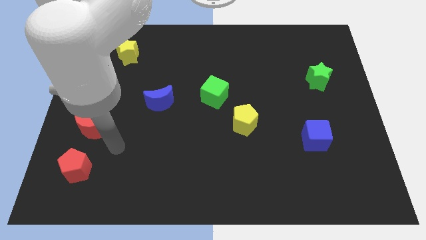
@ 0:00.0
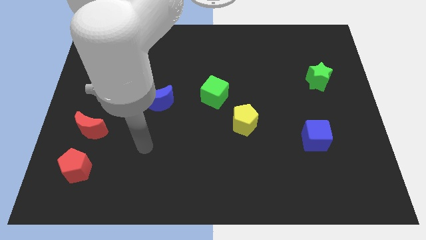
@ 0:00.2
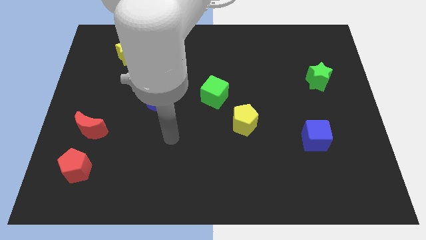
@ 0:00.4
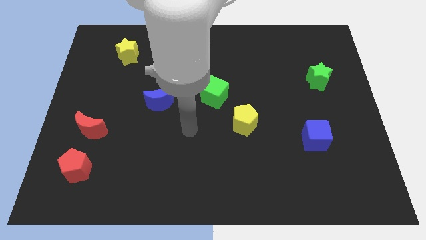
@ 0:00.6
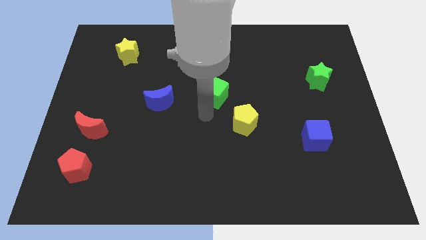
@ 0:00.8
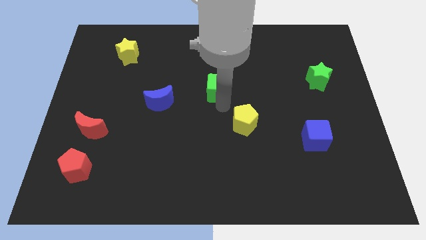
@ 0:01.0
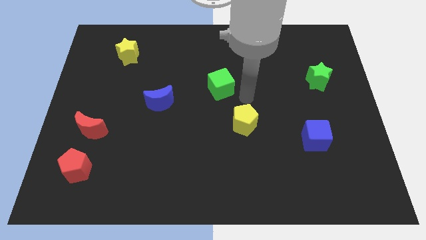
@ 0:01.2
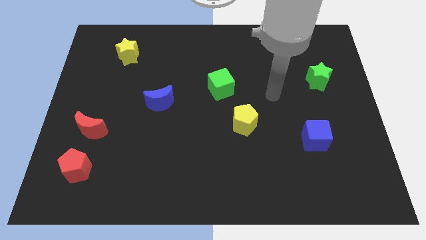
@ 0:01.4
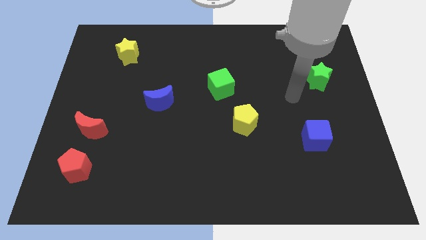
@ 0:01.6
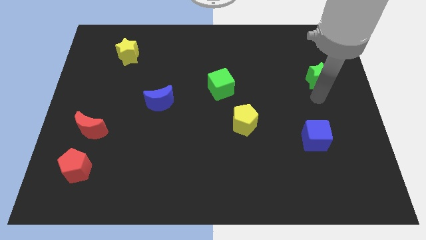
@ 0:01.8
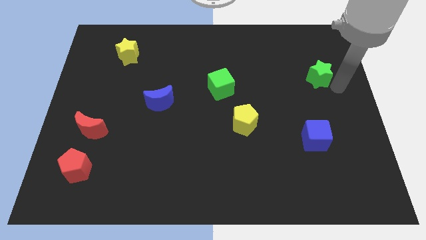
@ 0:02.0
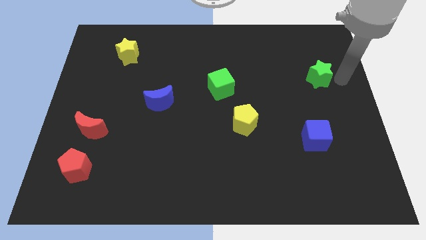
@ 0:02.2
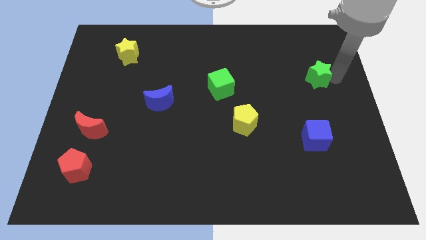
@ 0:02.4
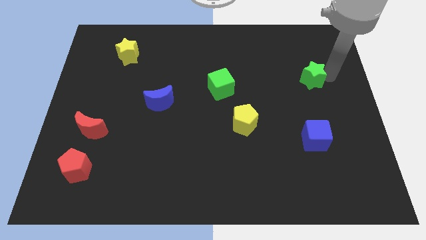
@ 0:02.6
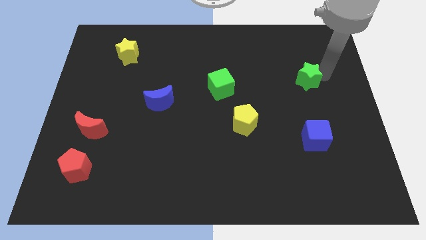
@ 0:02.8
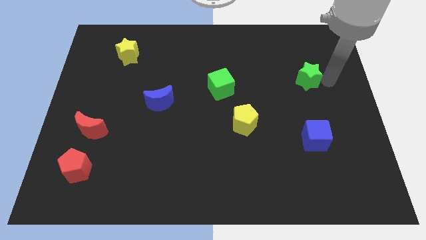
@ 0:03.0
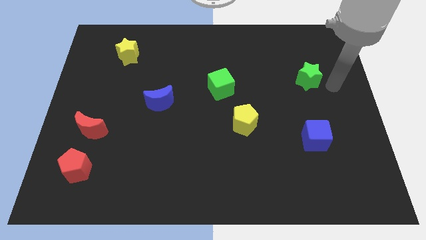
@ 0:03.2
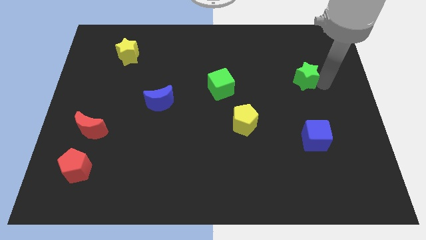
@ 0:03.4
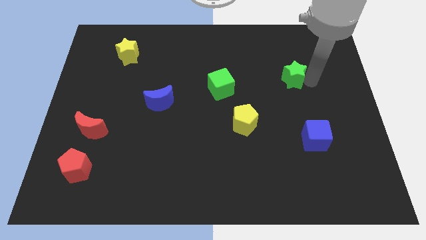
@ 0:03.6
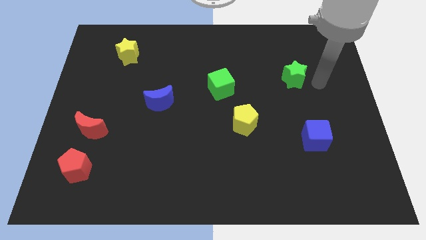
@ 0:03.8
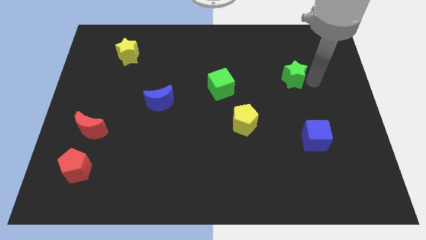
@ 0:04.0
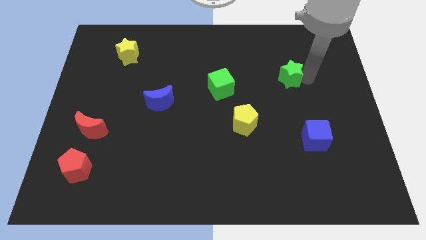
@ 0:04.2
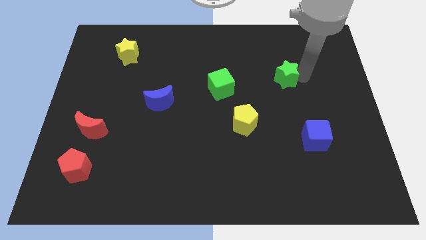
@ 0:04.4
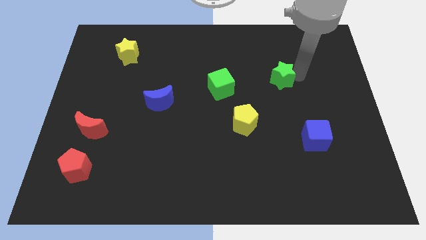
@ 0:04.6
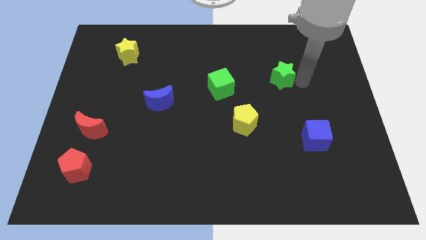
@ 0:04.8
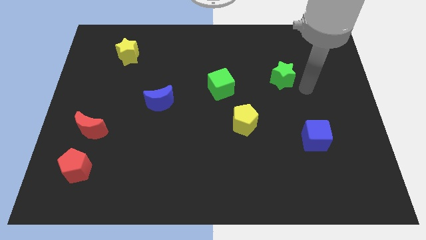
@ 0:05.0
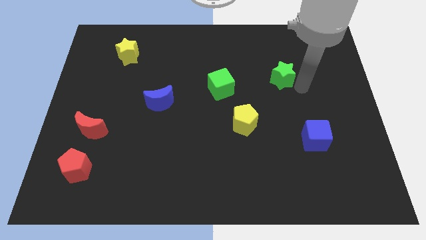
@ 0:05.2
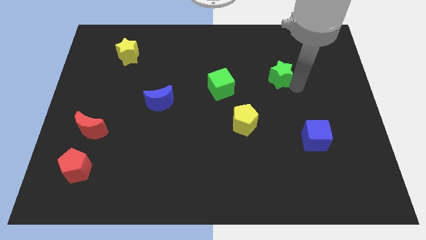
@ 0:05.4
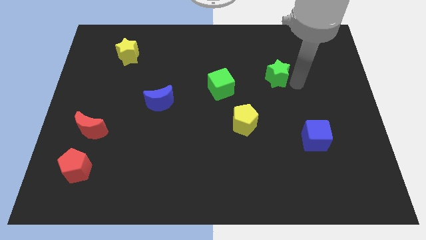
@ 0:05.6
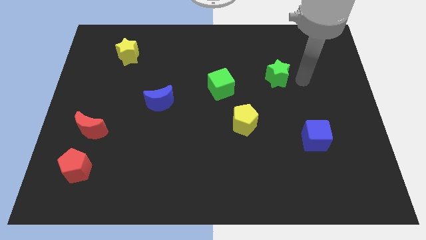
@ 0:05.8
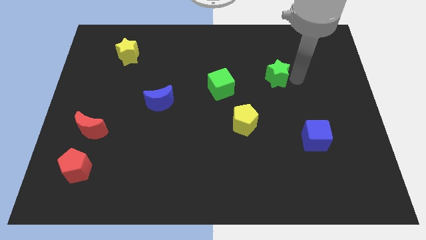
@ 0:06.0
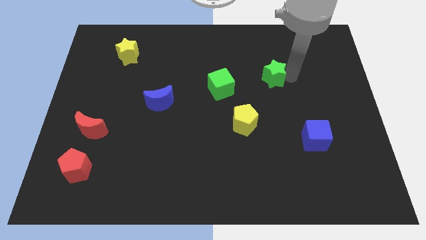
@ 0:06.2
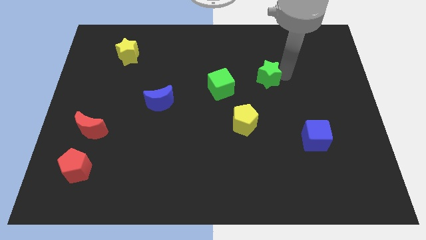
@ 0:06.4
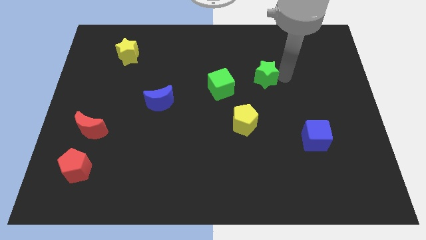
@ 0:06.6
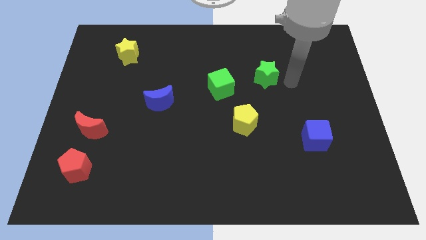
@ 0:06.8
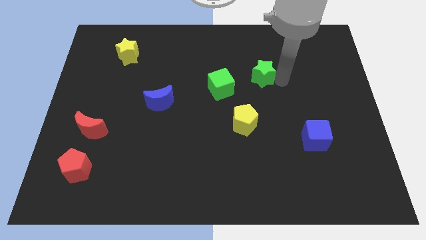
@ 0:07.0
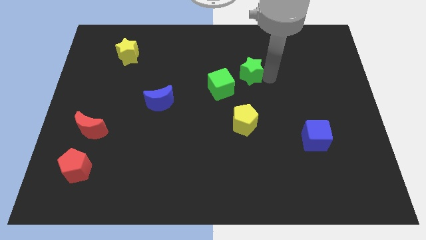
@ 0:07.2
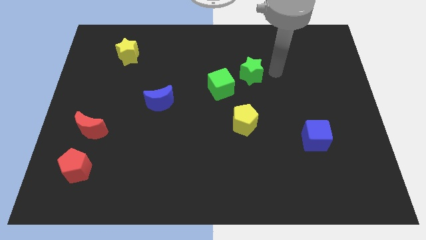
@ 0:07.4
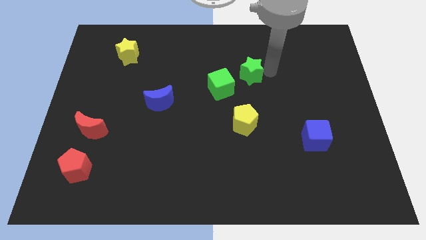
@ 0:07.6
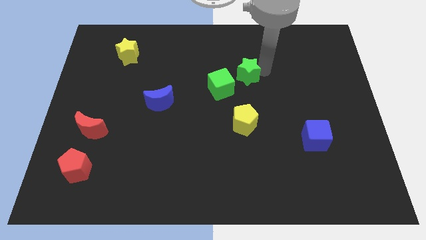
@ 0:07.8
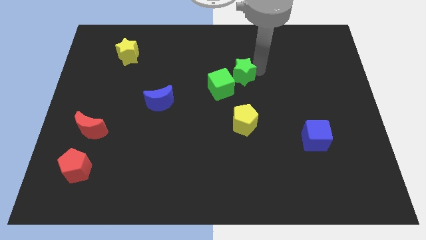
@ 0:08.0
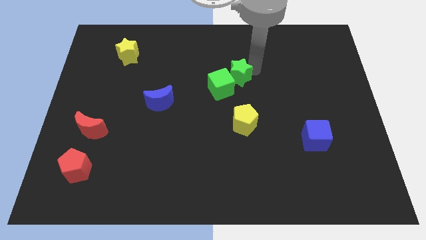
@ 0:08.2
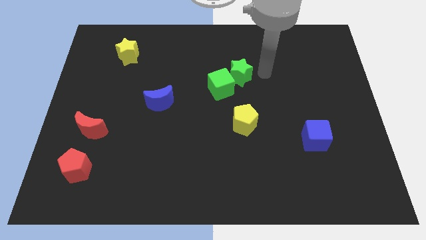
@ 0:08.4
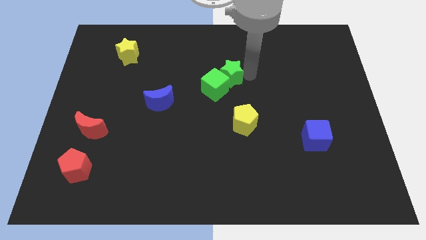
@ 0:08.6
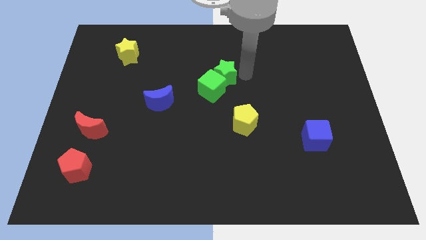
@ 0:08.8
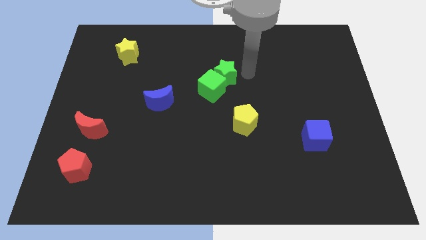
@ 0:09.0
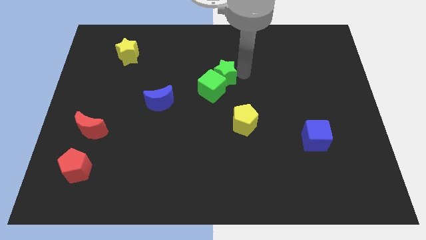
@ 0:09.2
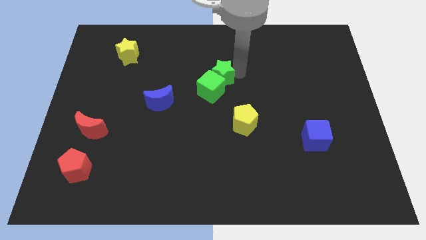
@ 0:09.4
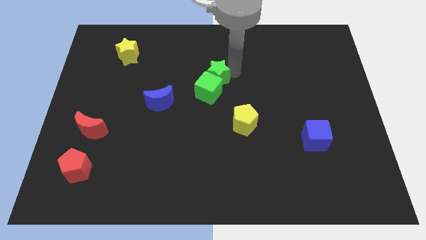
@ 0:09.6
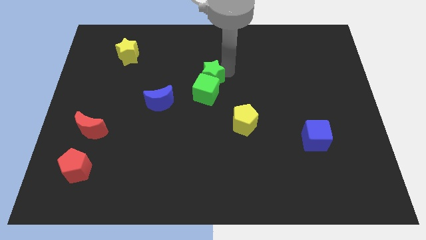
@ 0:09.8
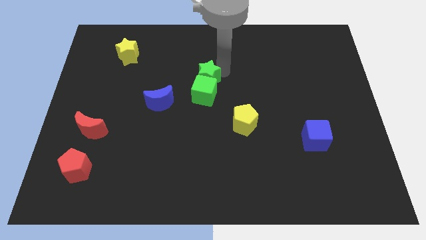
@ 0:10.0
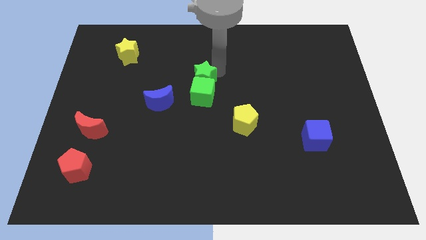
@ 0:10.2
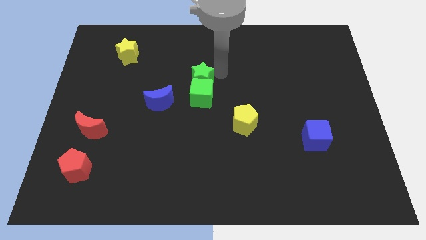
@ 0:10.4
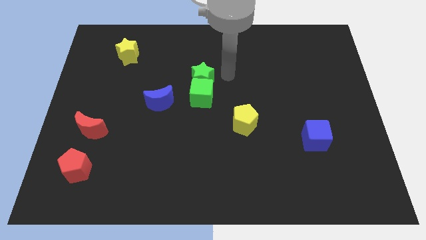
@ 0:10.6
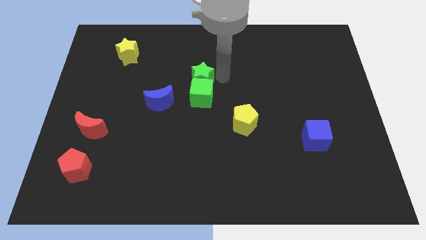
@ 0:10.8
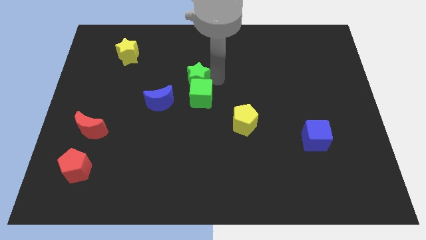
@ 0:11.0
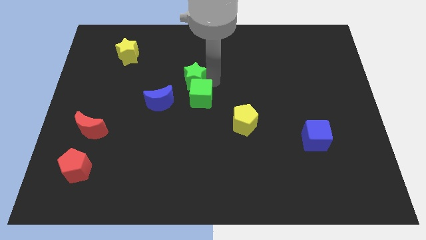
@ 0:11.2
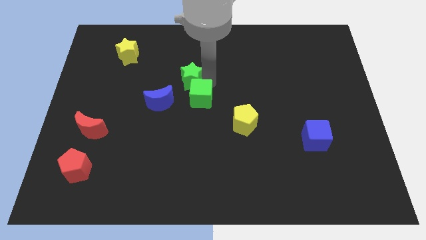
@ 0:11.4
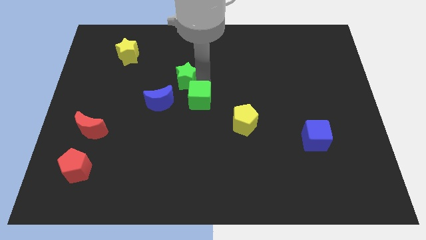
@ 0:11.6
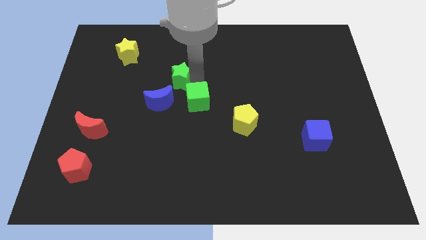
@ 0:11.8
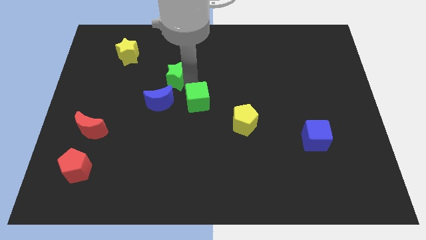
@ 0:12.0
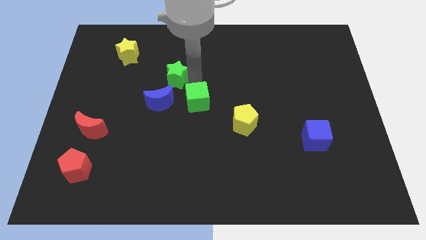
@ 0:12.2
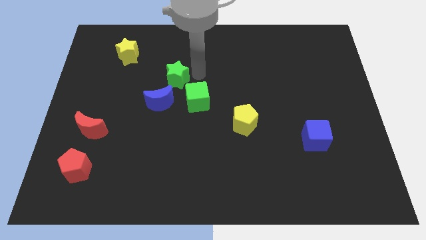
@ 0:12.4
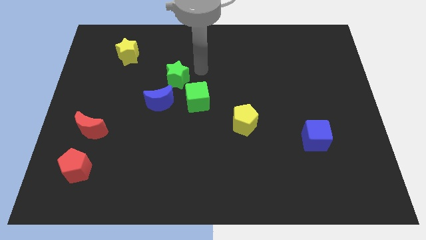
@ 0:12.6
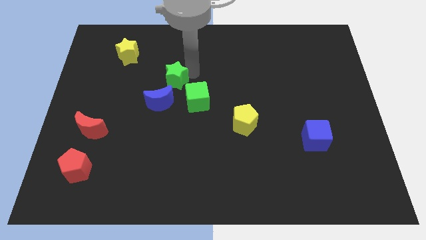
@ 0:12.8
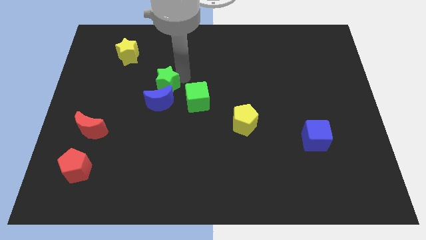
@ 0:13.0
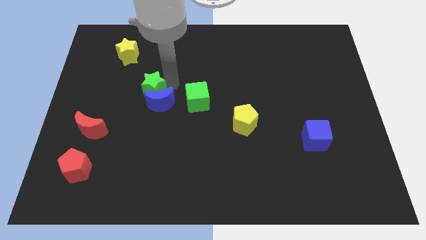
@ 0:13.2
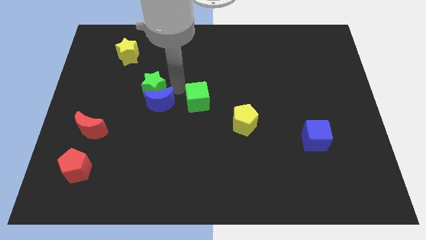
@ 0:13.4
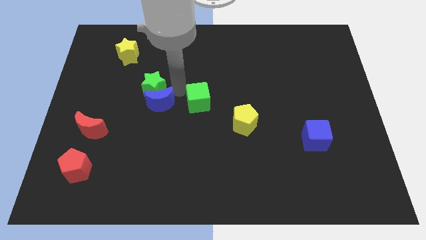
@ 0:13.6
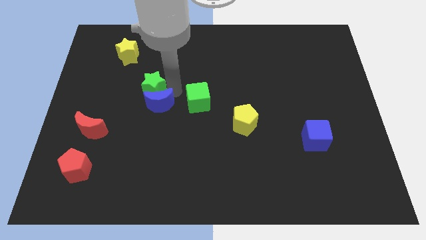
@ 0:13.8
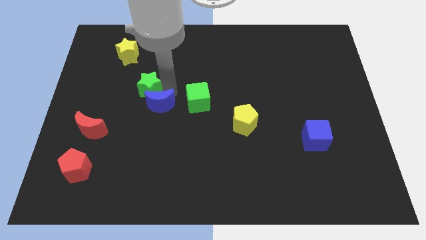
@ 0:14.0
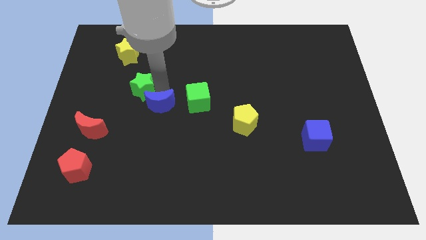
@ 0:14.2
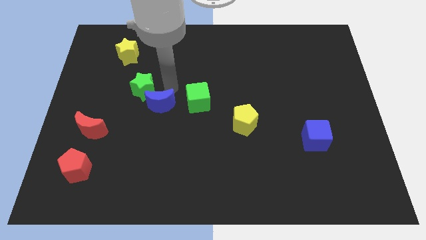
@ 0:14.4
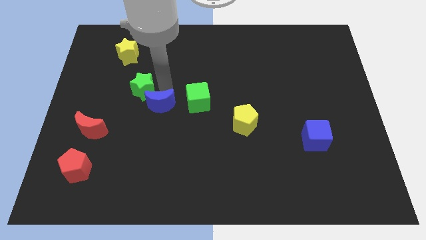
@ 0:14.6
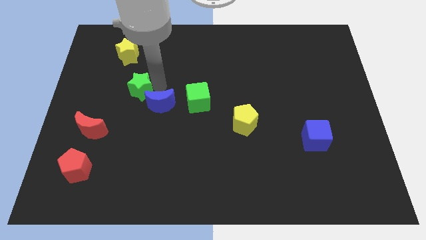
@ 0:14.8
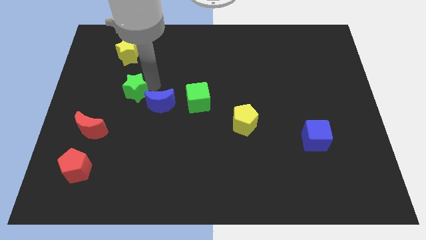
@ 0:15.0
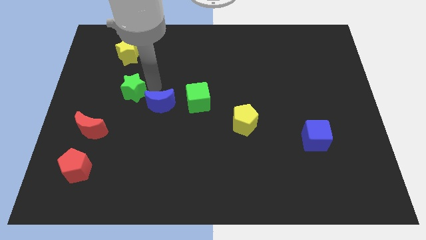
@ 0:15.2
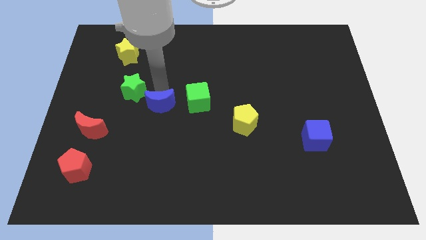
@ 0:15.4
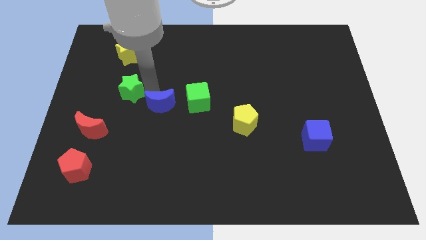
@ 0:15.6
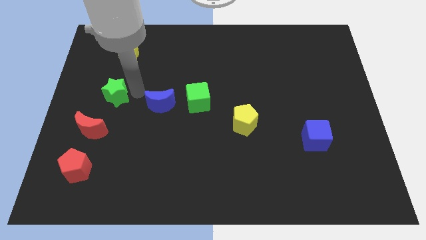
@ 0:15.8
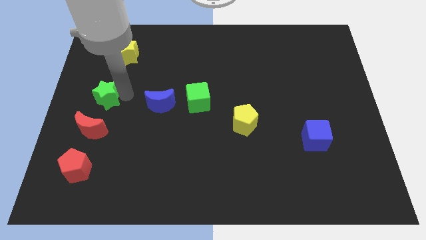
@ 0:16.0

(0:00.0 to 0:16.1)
put the green star to the left side of the board
